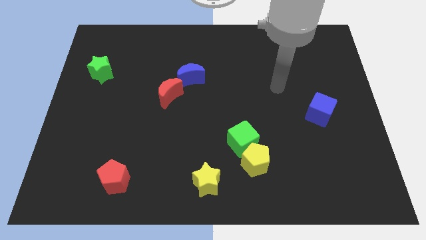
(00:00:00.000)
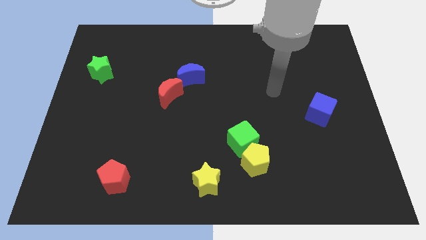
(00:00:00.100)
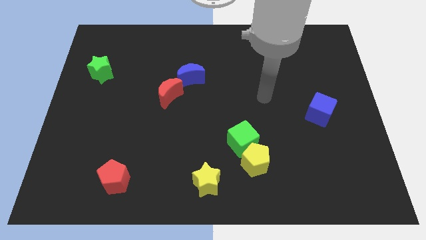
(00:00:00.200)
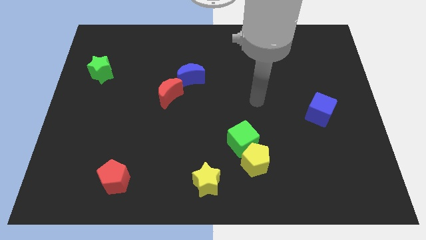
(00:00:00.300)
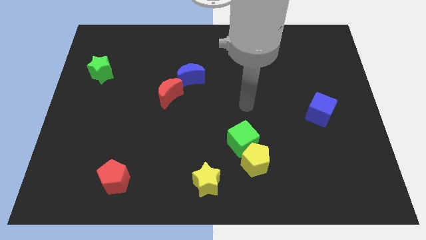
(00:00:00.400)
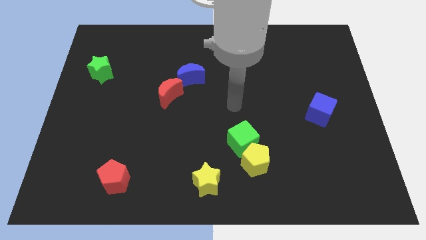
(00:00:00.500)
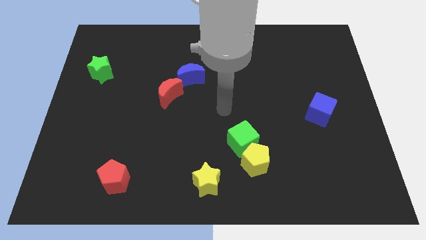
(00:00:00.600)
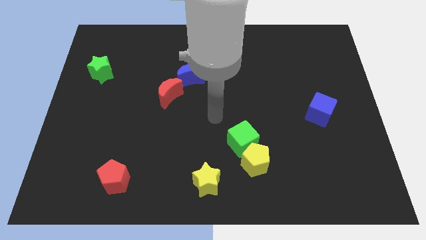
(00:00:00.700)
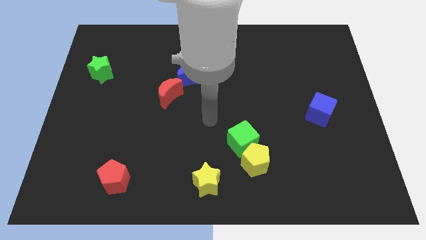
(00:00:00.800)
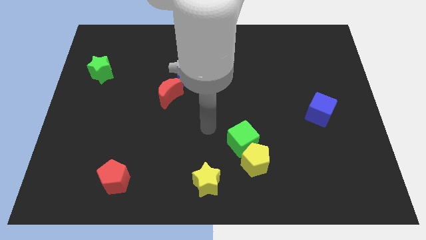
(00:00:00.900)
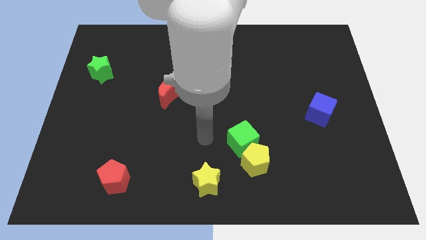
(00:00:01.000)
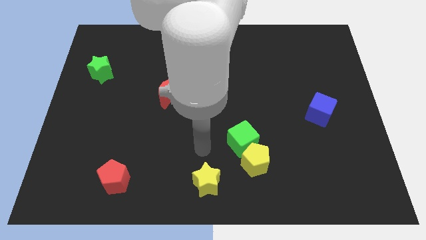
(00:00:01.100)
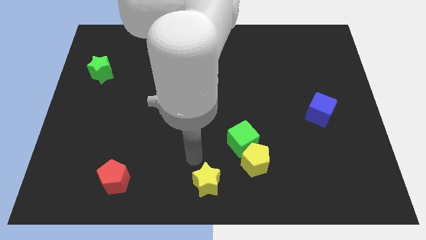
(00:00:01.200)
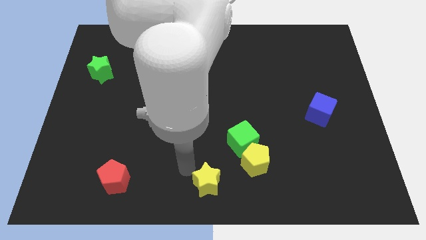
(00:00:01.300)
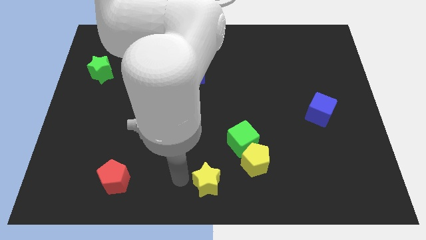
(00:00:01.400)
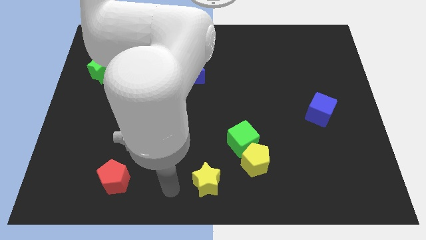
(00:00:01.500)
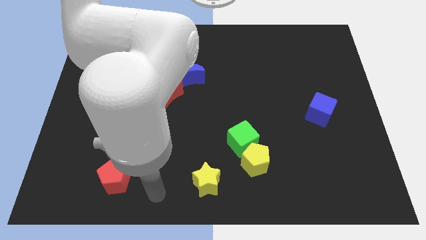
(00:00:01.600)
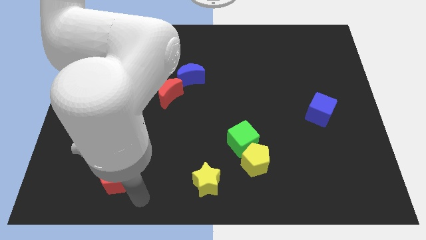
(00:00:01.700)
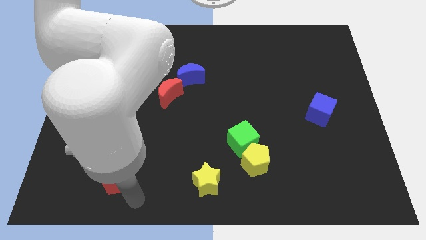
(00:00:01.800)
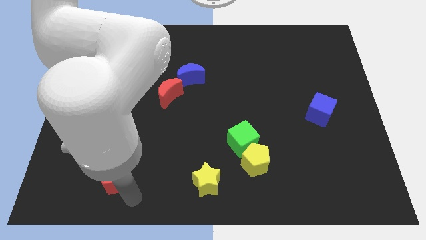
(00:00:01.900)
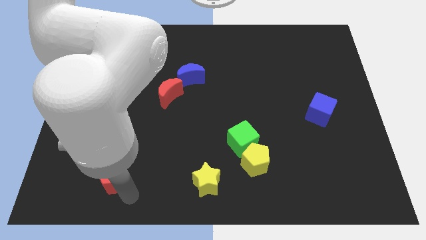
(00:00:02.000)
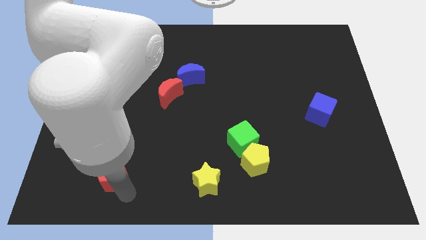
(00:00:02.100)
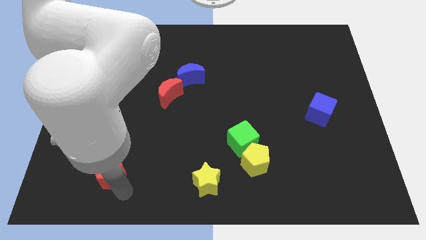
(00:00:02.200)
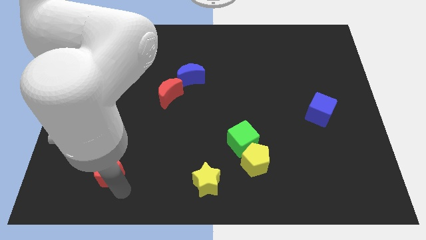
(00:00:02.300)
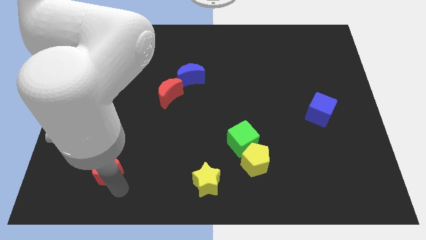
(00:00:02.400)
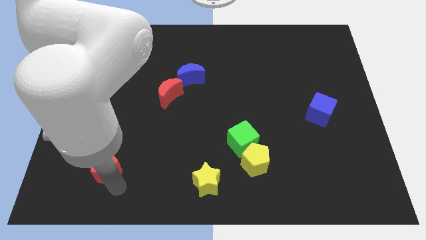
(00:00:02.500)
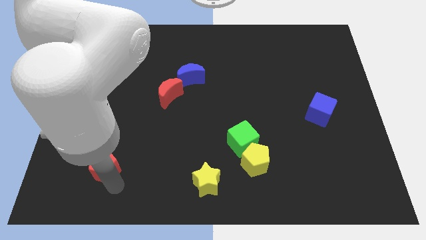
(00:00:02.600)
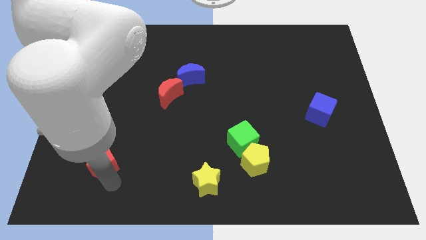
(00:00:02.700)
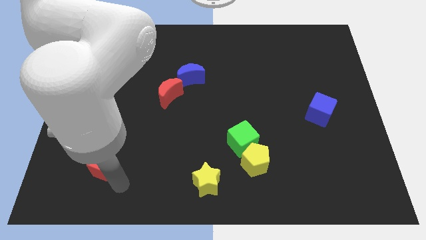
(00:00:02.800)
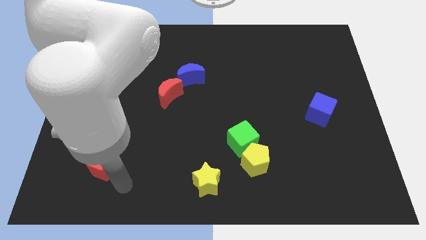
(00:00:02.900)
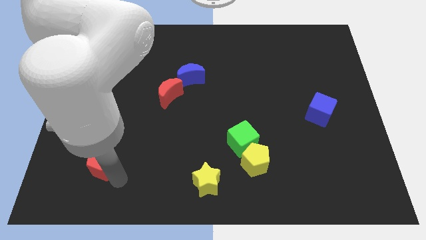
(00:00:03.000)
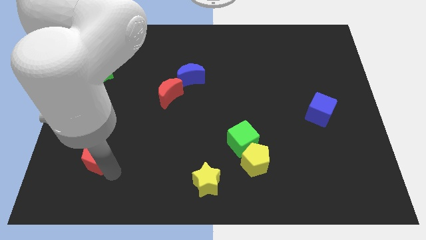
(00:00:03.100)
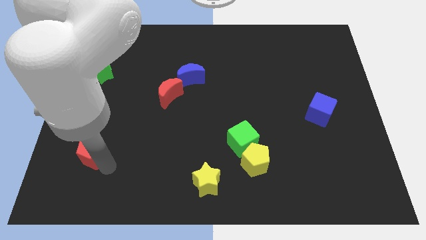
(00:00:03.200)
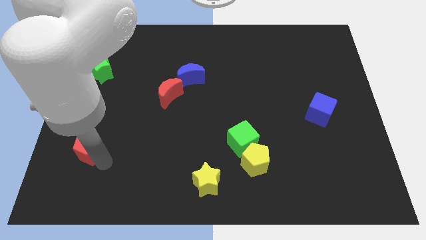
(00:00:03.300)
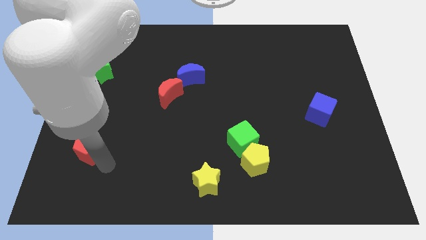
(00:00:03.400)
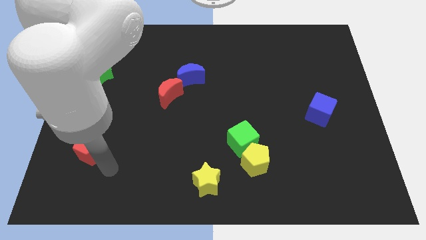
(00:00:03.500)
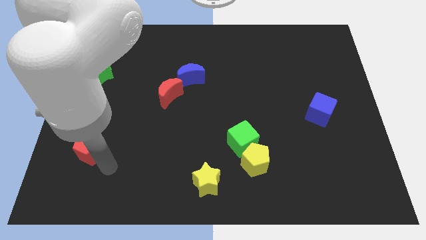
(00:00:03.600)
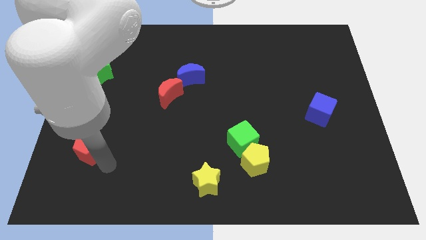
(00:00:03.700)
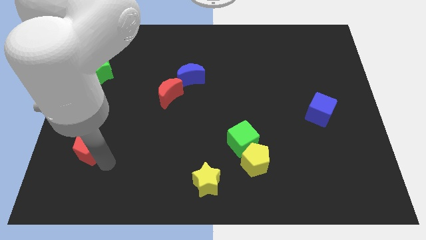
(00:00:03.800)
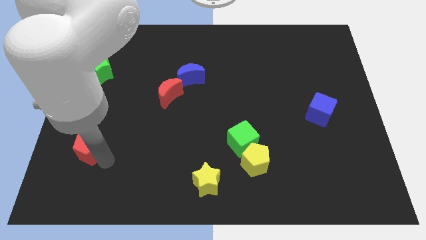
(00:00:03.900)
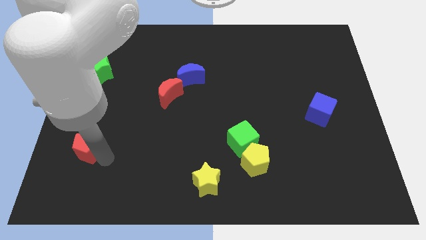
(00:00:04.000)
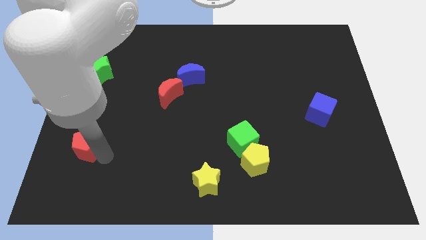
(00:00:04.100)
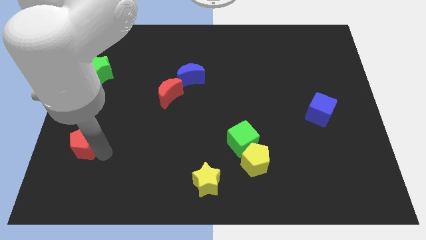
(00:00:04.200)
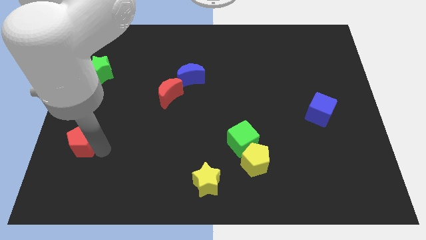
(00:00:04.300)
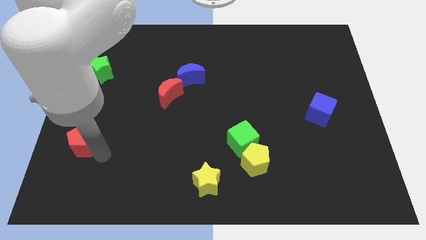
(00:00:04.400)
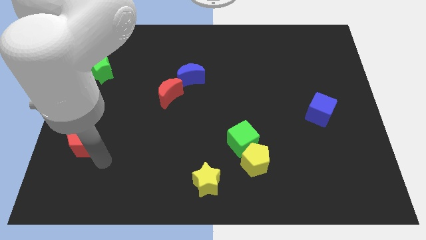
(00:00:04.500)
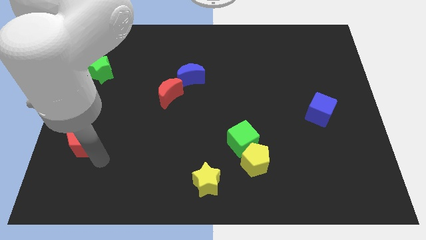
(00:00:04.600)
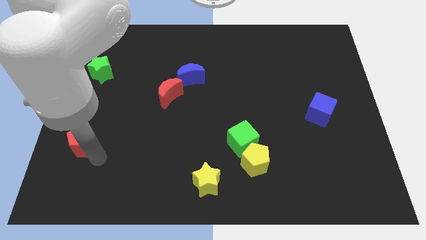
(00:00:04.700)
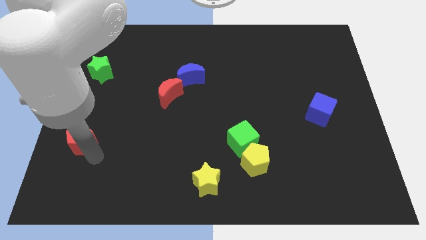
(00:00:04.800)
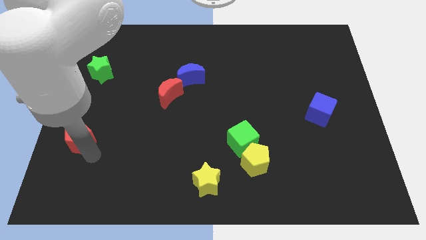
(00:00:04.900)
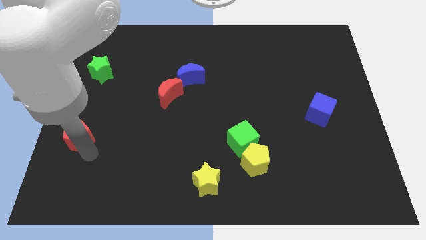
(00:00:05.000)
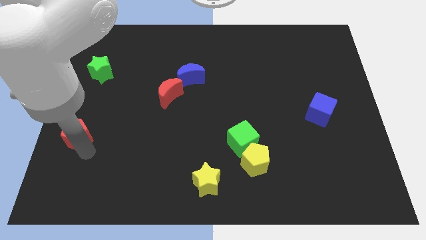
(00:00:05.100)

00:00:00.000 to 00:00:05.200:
push the red pentagon to the center left

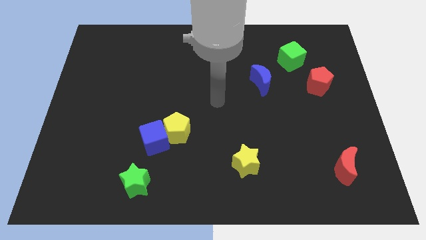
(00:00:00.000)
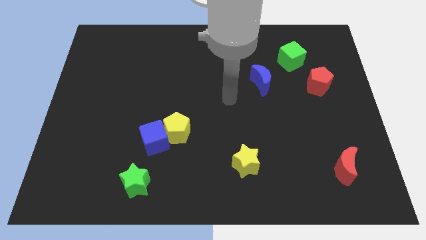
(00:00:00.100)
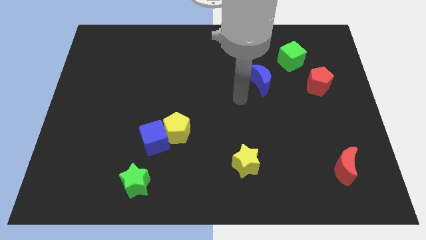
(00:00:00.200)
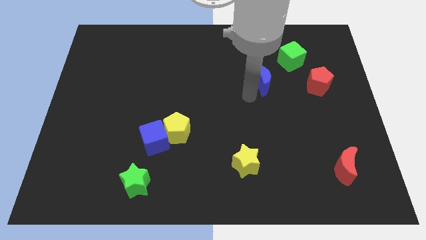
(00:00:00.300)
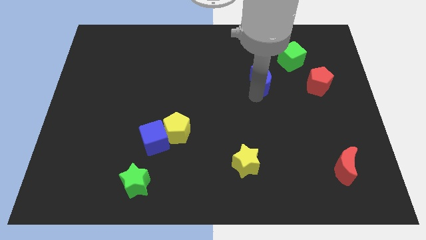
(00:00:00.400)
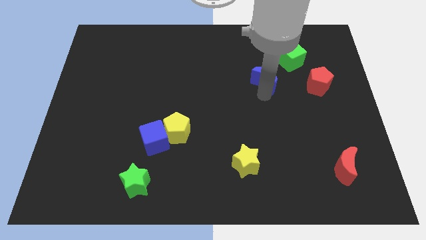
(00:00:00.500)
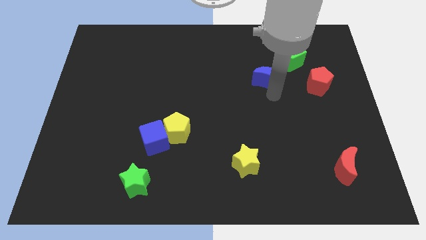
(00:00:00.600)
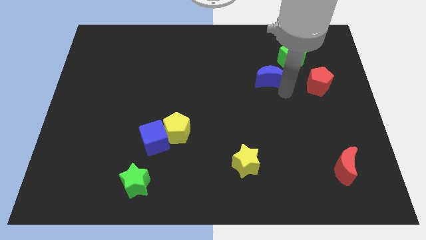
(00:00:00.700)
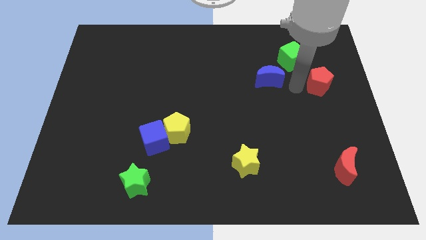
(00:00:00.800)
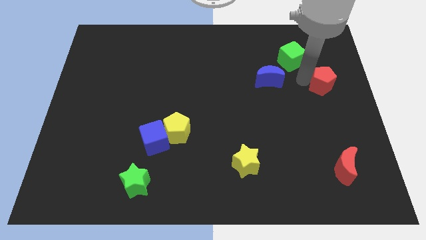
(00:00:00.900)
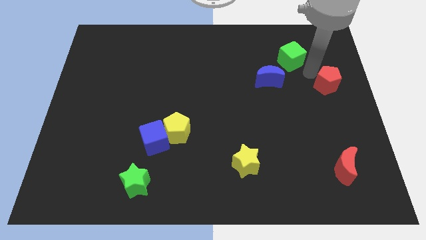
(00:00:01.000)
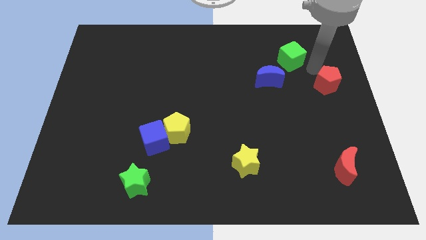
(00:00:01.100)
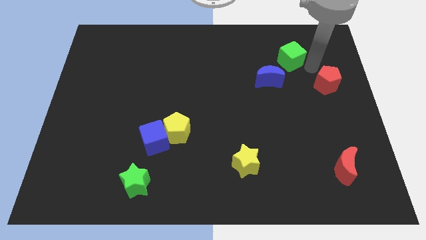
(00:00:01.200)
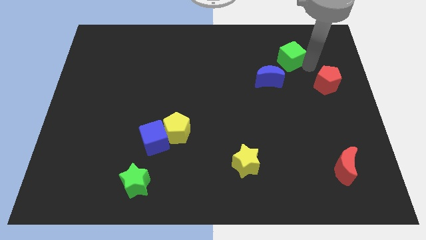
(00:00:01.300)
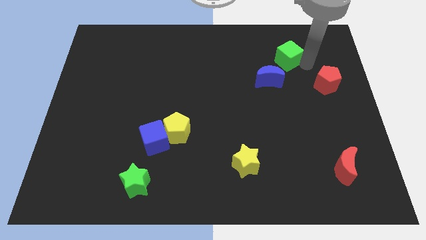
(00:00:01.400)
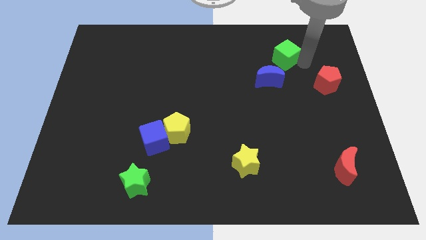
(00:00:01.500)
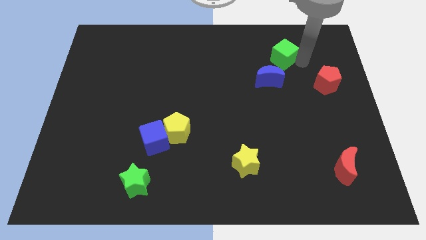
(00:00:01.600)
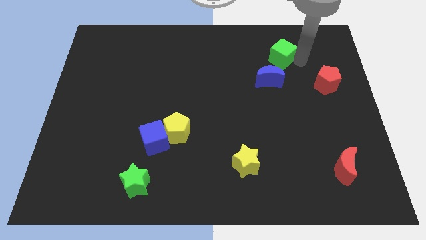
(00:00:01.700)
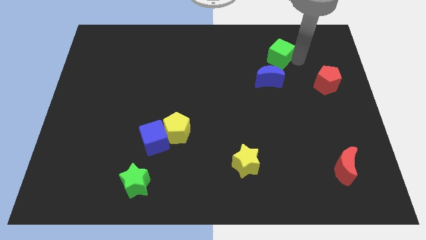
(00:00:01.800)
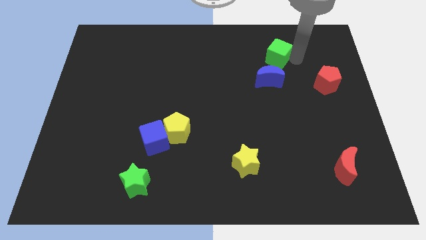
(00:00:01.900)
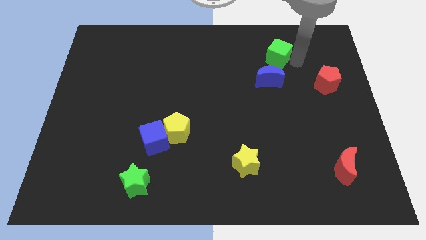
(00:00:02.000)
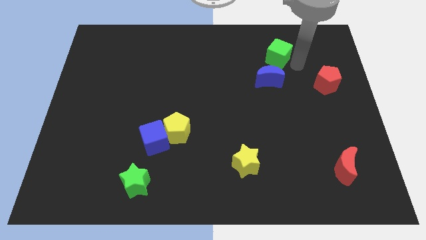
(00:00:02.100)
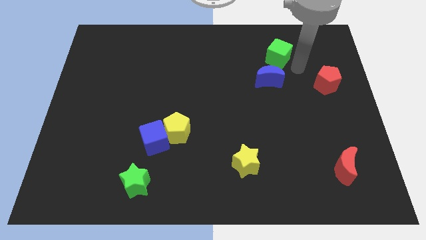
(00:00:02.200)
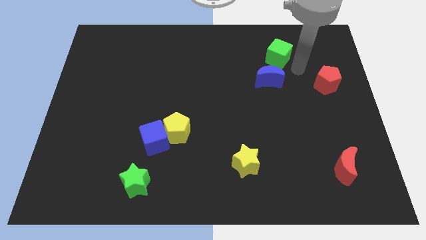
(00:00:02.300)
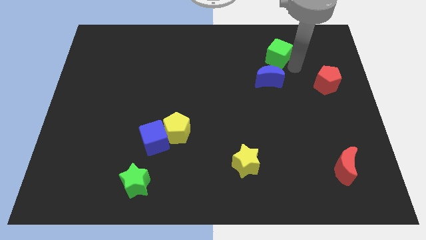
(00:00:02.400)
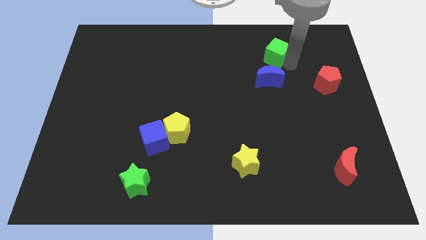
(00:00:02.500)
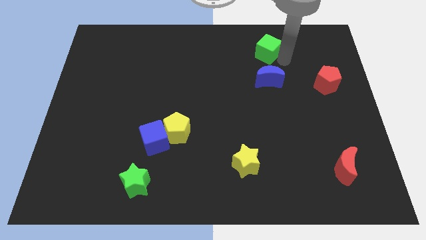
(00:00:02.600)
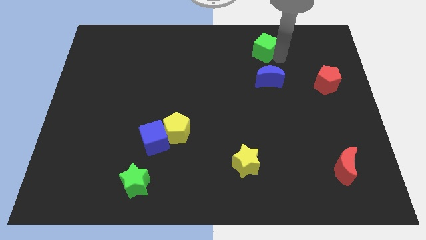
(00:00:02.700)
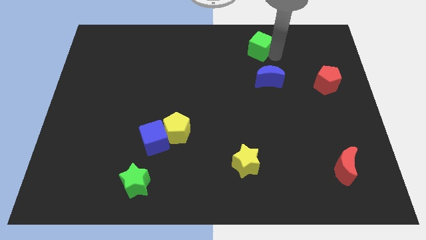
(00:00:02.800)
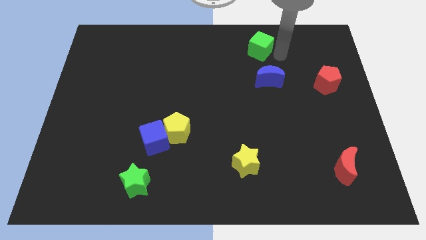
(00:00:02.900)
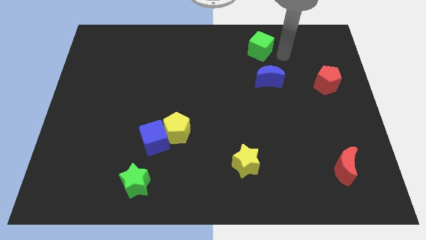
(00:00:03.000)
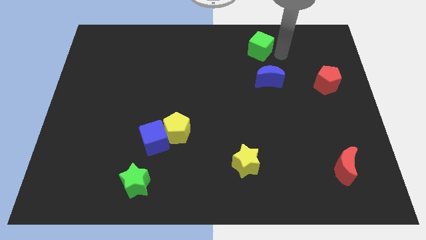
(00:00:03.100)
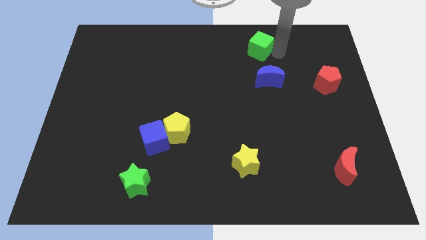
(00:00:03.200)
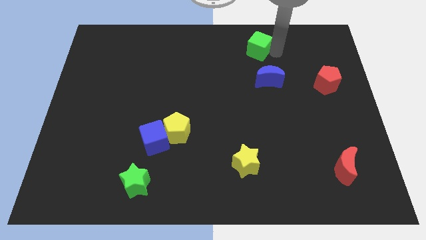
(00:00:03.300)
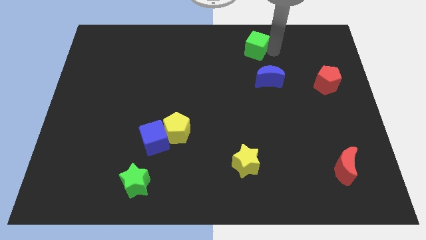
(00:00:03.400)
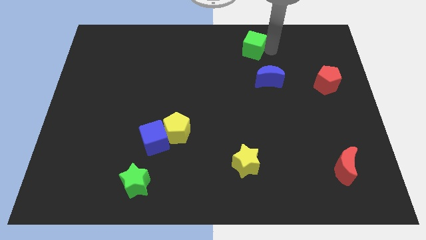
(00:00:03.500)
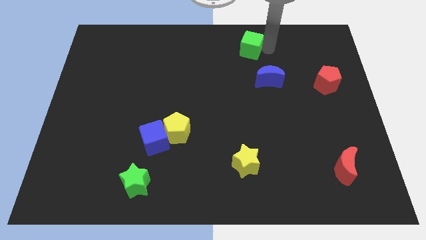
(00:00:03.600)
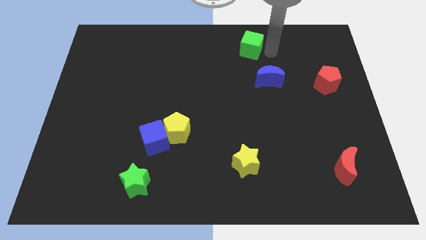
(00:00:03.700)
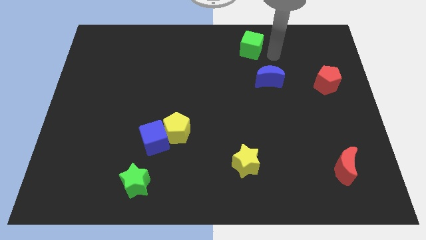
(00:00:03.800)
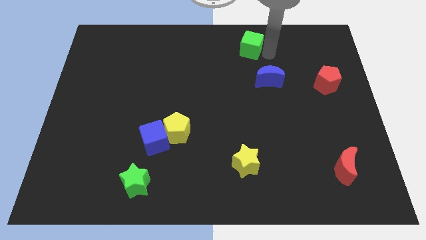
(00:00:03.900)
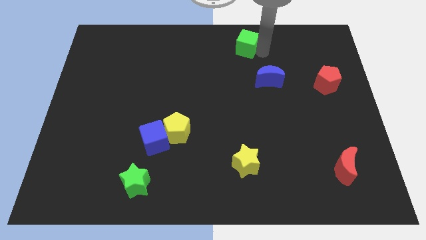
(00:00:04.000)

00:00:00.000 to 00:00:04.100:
push the green cube to the towards your base
